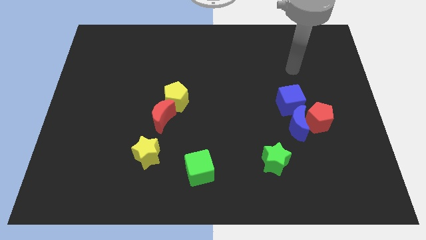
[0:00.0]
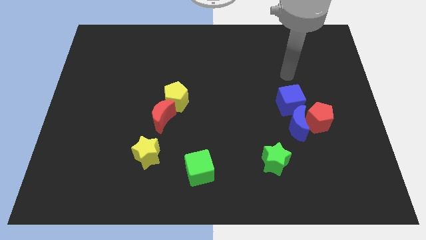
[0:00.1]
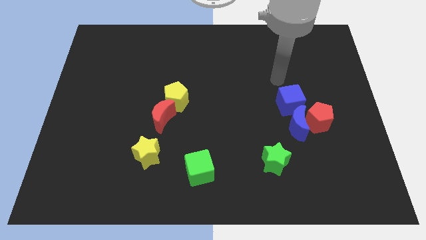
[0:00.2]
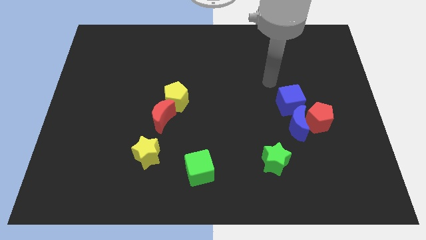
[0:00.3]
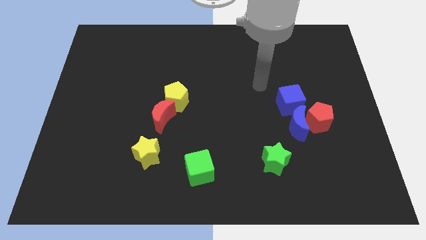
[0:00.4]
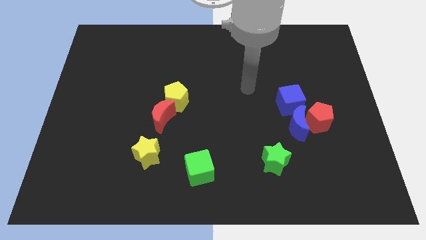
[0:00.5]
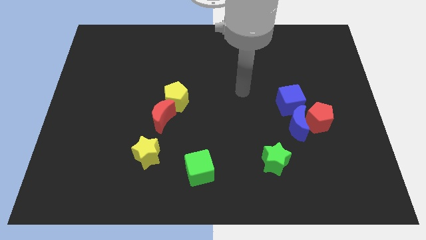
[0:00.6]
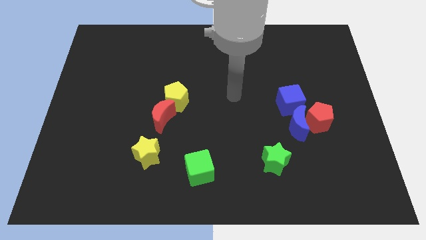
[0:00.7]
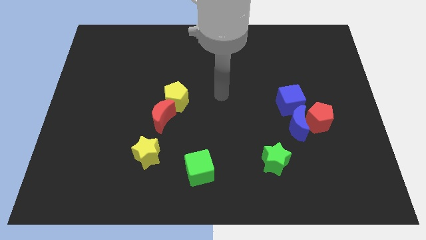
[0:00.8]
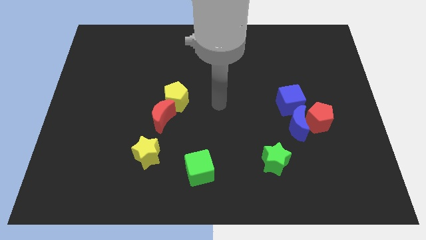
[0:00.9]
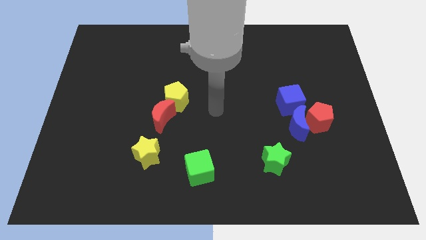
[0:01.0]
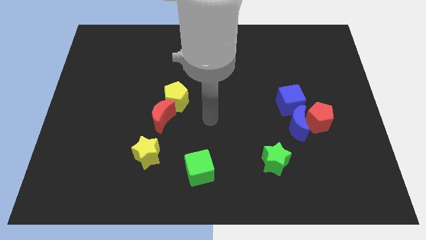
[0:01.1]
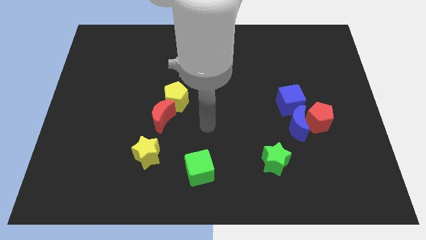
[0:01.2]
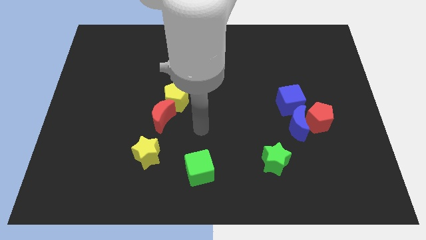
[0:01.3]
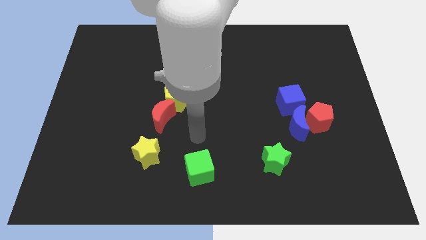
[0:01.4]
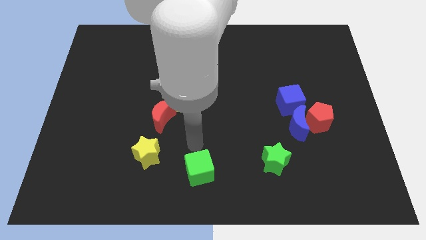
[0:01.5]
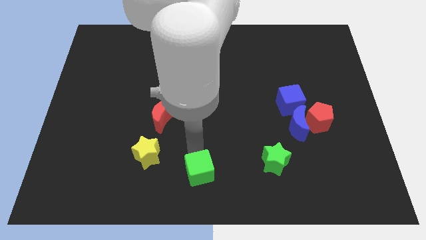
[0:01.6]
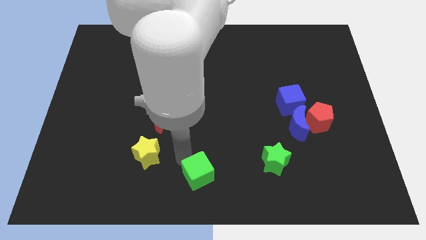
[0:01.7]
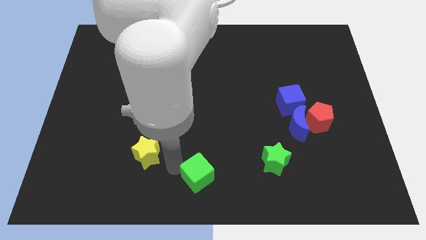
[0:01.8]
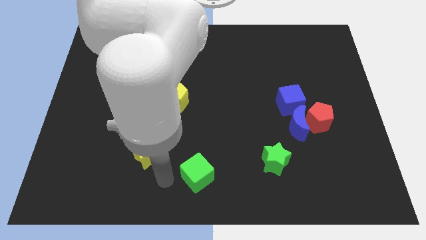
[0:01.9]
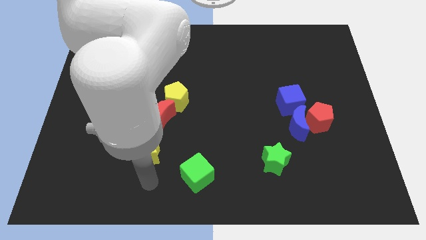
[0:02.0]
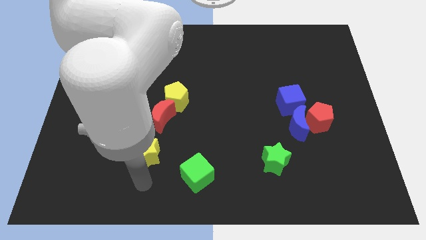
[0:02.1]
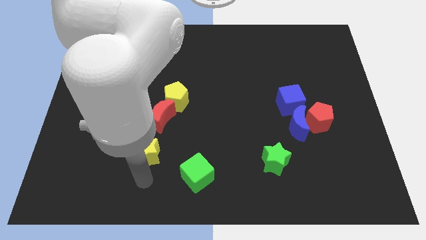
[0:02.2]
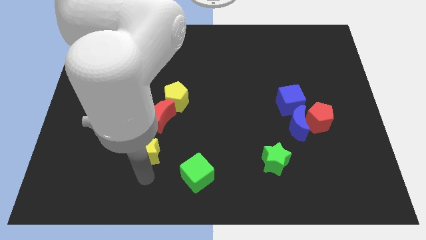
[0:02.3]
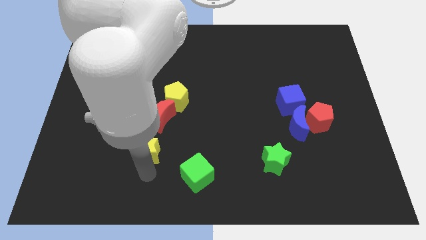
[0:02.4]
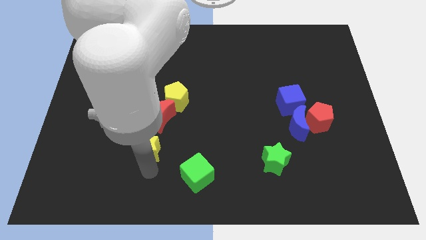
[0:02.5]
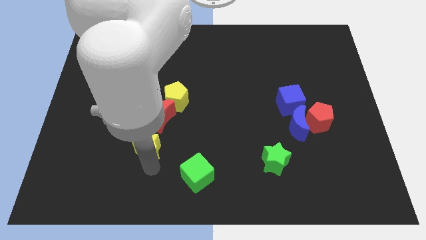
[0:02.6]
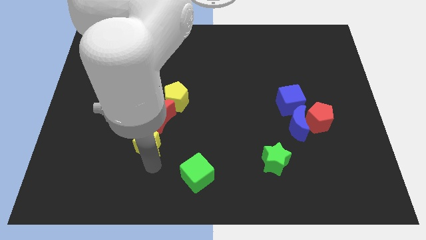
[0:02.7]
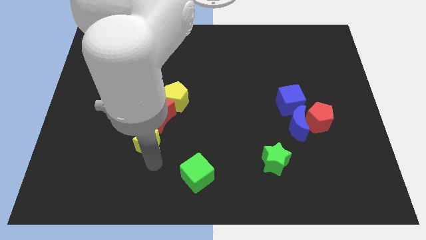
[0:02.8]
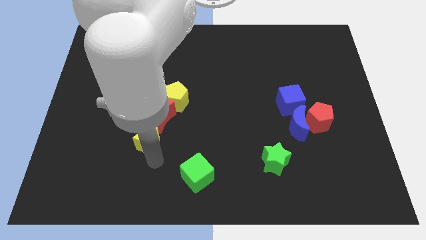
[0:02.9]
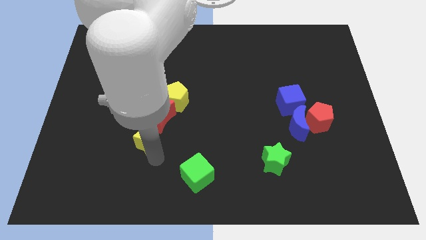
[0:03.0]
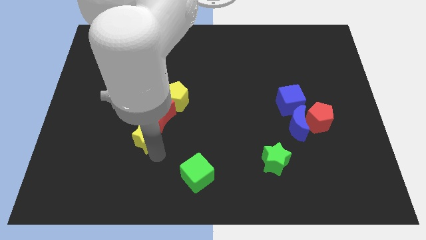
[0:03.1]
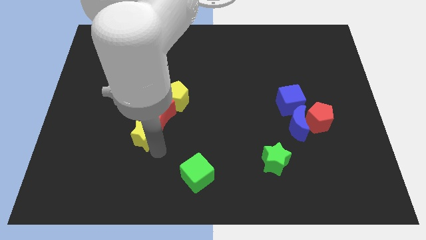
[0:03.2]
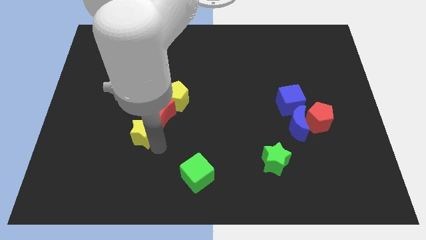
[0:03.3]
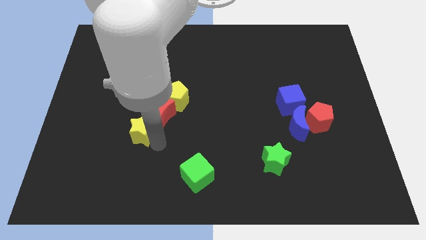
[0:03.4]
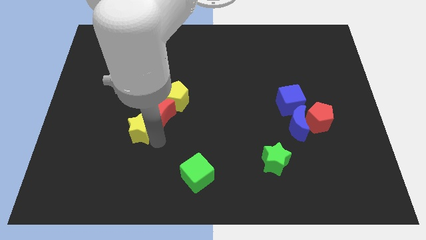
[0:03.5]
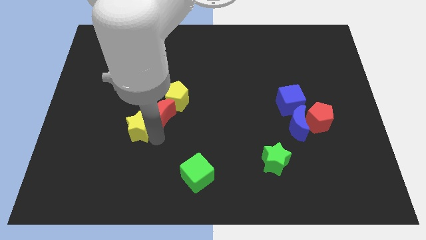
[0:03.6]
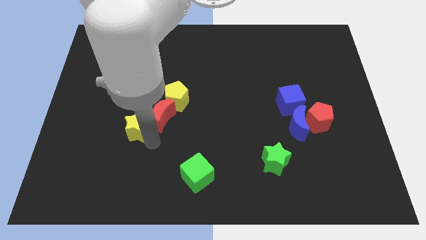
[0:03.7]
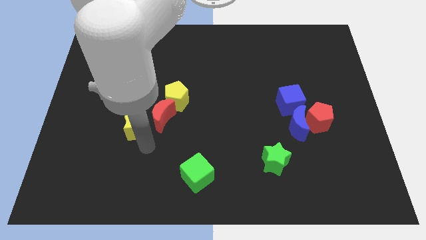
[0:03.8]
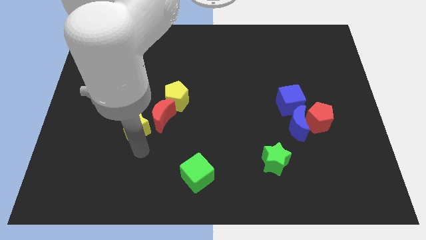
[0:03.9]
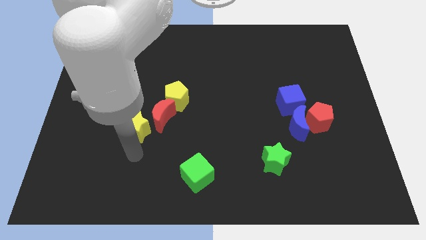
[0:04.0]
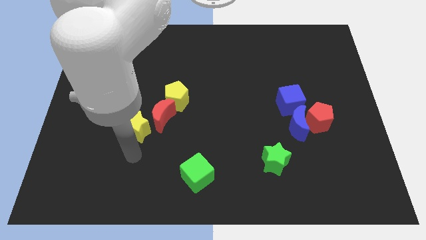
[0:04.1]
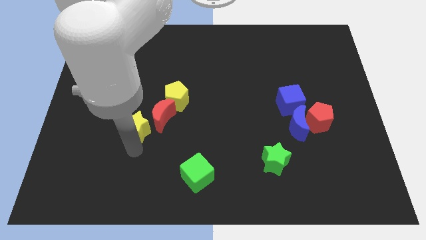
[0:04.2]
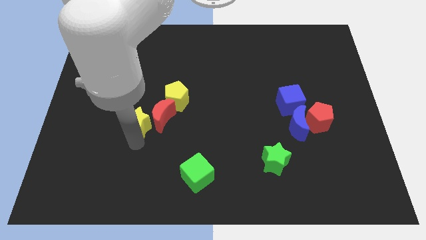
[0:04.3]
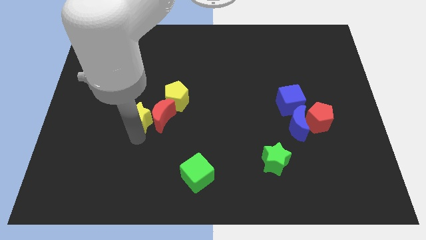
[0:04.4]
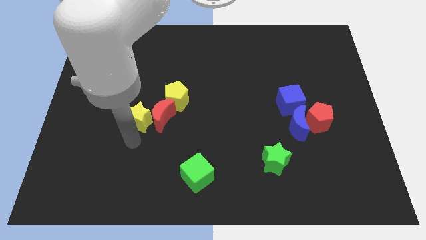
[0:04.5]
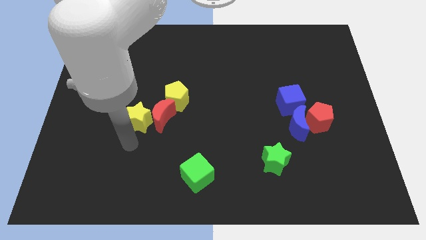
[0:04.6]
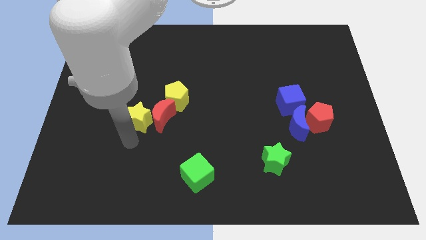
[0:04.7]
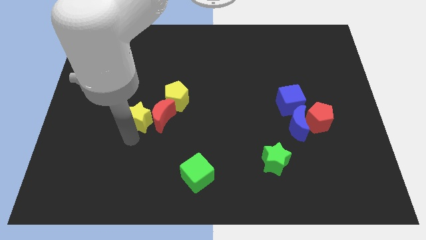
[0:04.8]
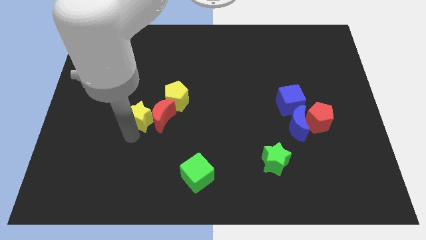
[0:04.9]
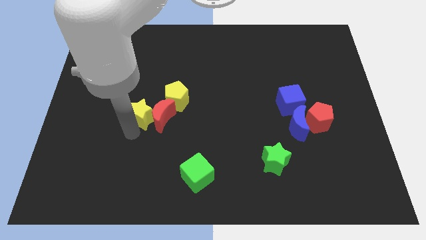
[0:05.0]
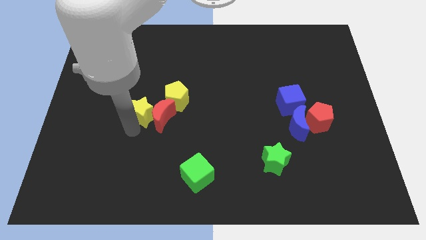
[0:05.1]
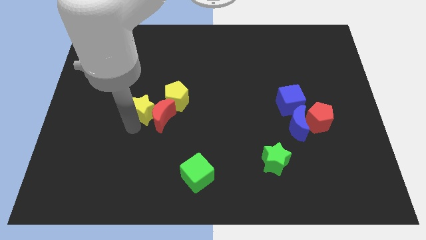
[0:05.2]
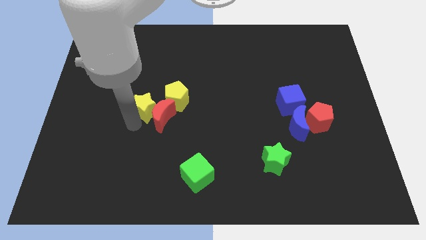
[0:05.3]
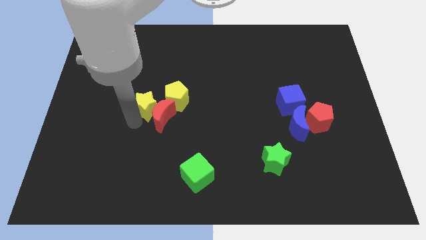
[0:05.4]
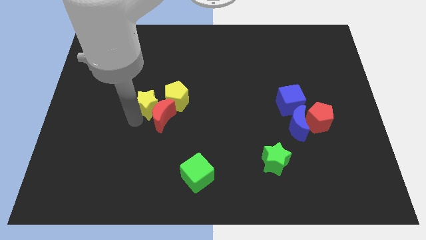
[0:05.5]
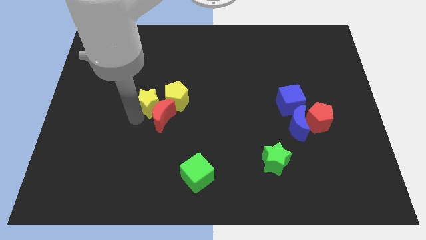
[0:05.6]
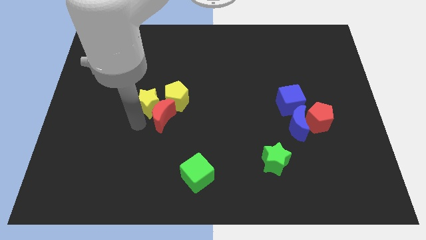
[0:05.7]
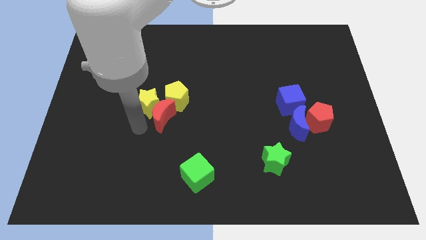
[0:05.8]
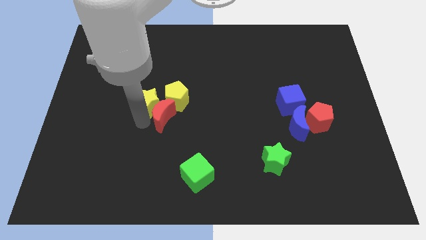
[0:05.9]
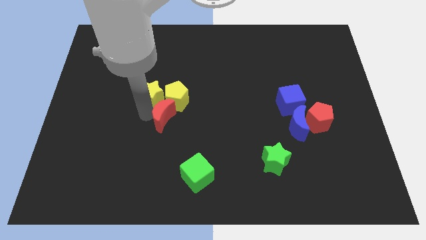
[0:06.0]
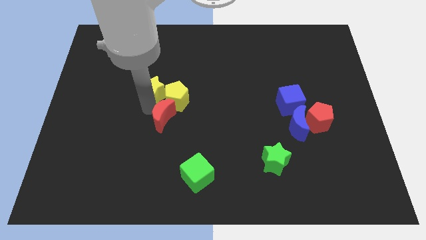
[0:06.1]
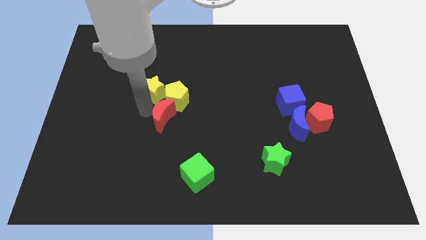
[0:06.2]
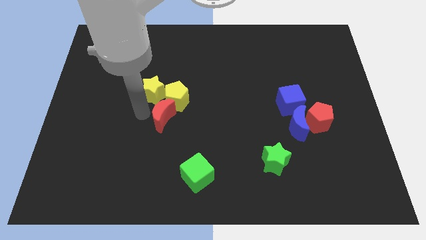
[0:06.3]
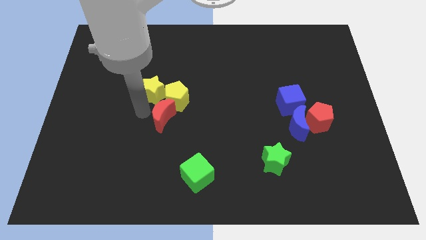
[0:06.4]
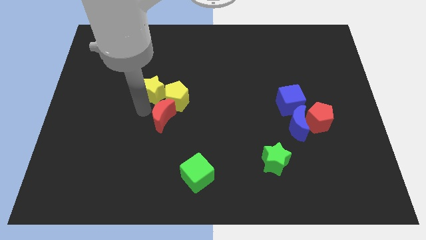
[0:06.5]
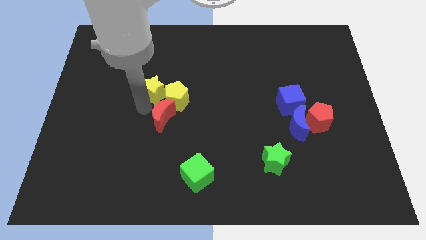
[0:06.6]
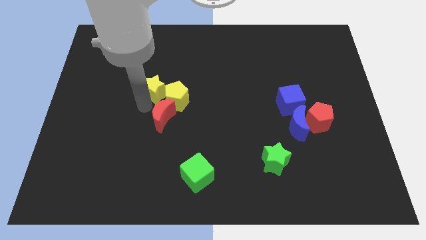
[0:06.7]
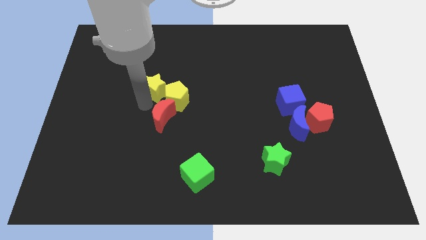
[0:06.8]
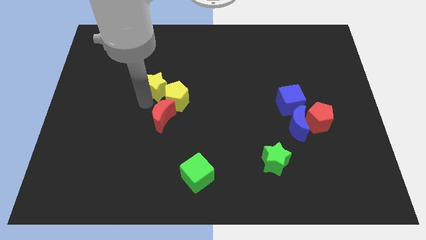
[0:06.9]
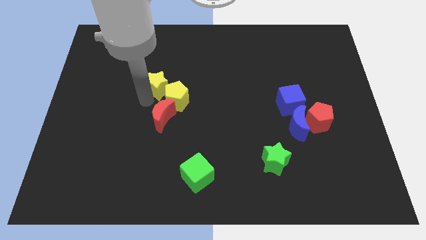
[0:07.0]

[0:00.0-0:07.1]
put the yellow star to the top of the yellow pentagon
